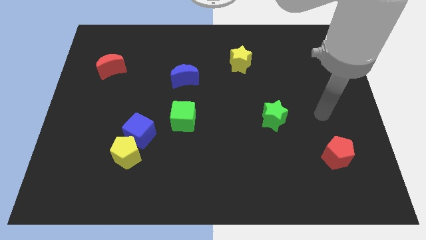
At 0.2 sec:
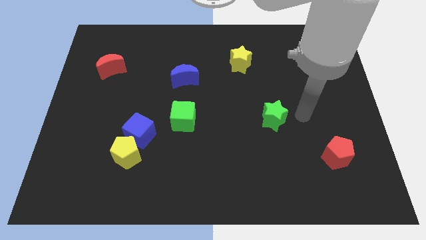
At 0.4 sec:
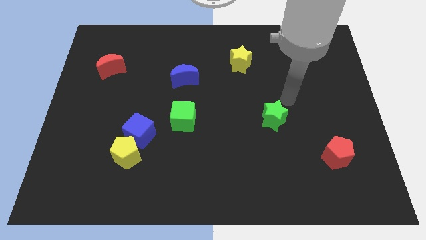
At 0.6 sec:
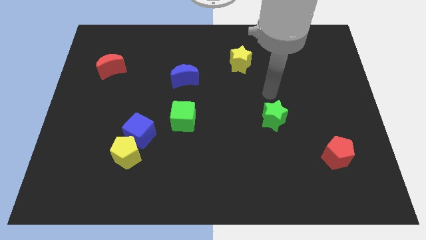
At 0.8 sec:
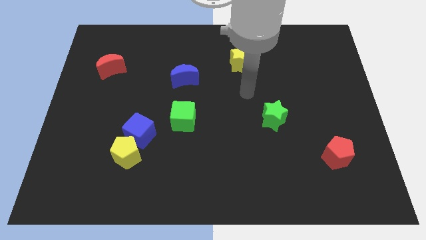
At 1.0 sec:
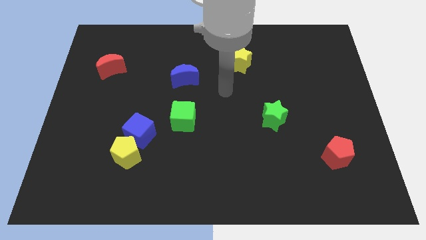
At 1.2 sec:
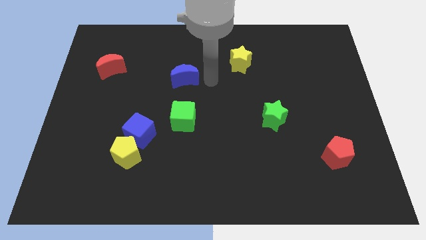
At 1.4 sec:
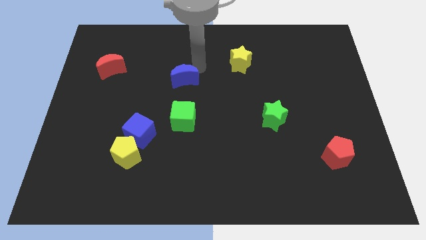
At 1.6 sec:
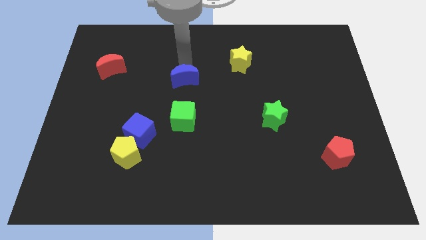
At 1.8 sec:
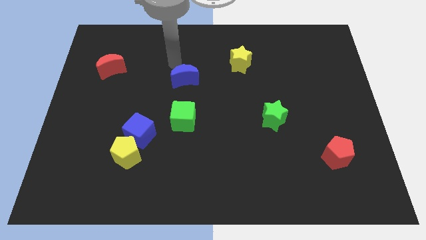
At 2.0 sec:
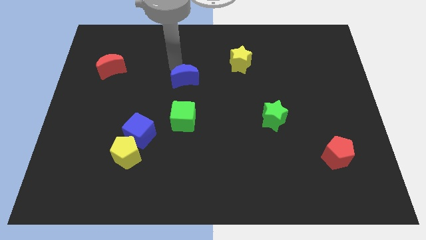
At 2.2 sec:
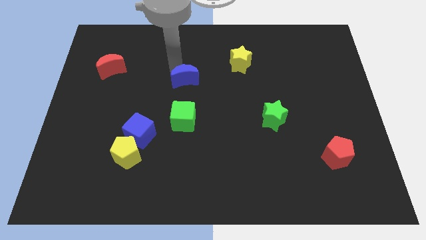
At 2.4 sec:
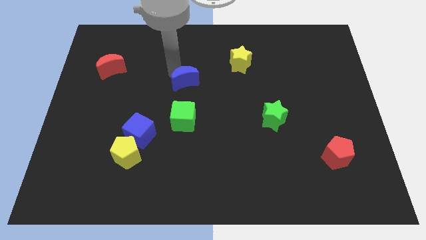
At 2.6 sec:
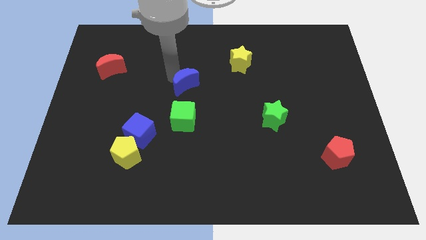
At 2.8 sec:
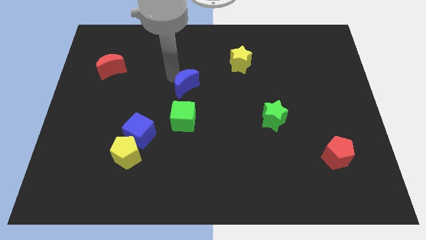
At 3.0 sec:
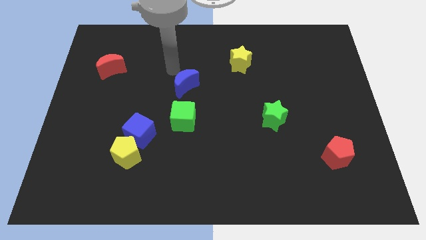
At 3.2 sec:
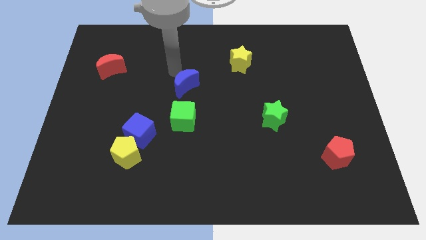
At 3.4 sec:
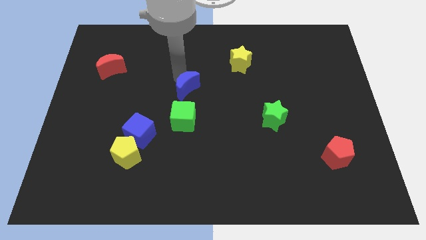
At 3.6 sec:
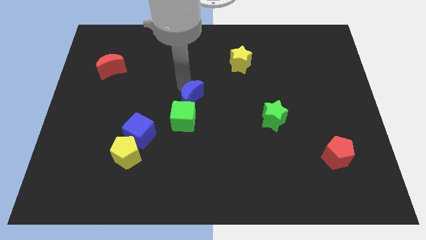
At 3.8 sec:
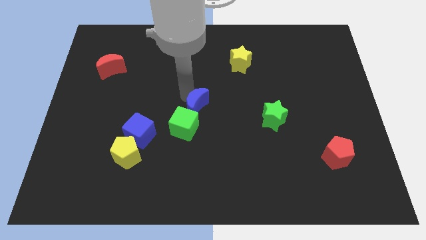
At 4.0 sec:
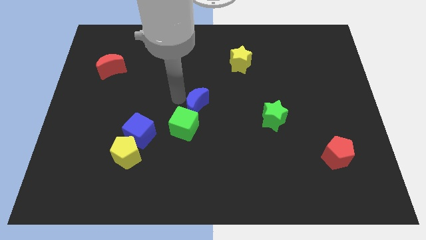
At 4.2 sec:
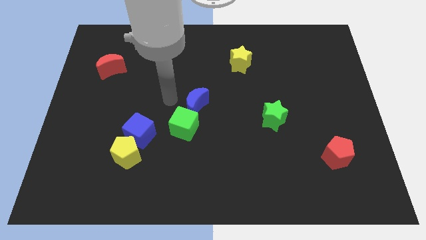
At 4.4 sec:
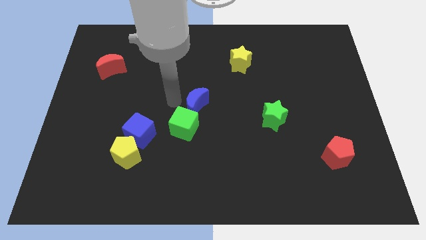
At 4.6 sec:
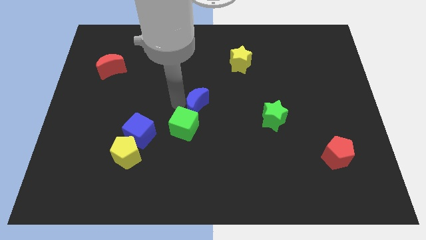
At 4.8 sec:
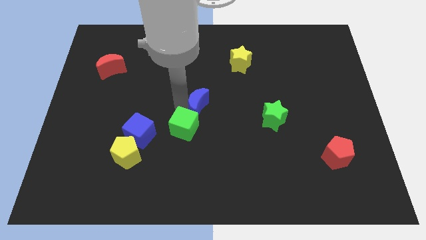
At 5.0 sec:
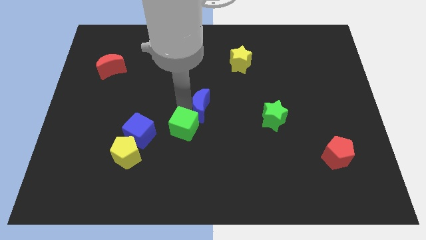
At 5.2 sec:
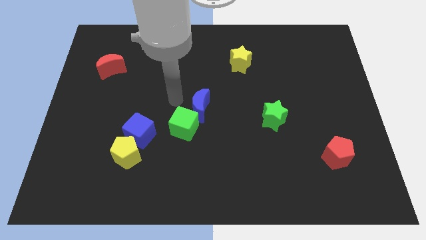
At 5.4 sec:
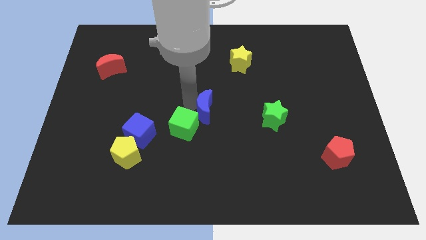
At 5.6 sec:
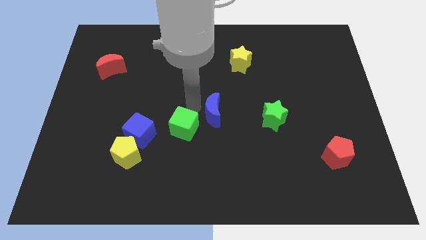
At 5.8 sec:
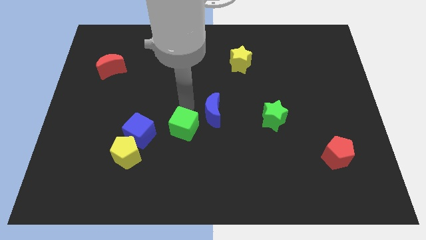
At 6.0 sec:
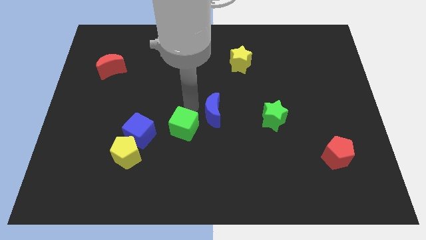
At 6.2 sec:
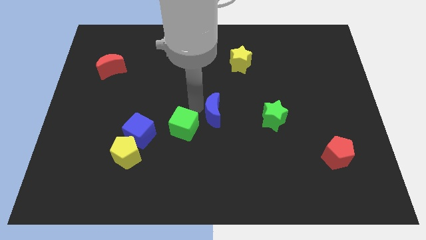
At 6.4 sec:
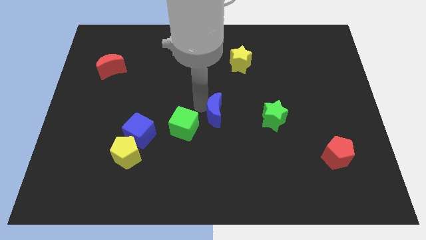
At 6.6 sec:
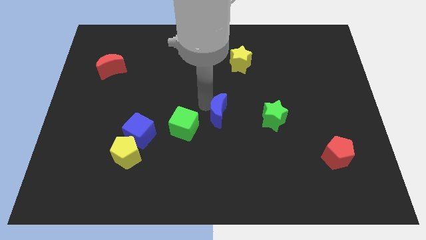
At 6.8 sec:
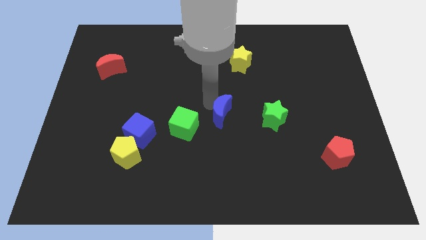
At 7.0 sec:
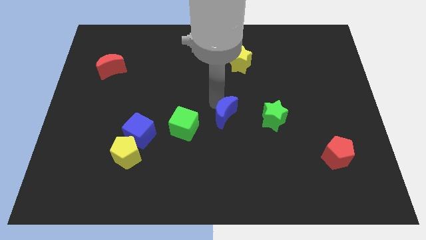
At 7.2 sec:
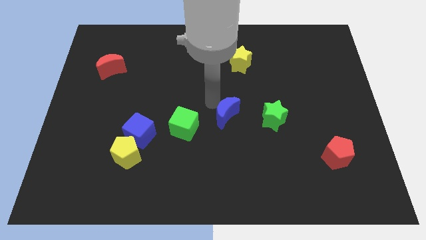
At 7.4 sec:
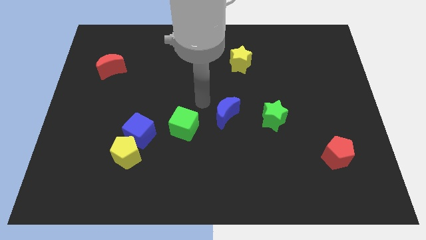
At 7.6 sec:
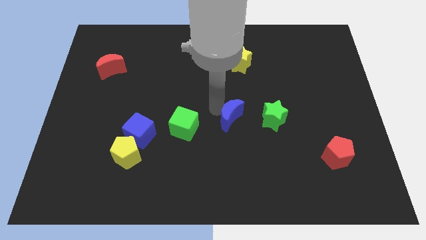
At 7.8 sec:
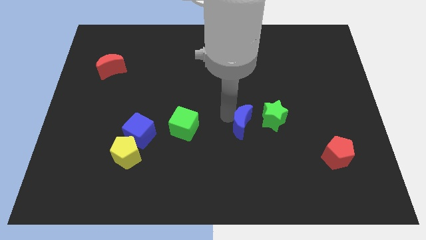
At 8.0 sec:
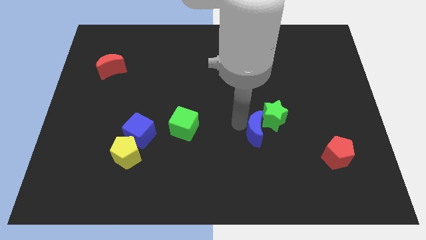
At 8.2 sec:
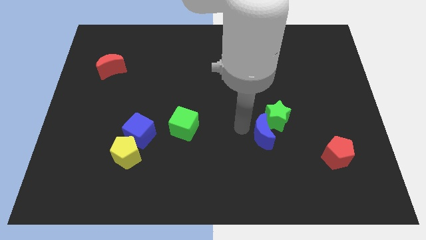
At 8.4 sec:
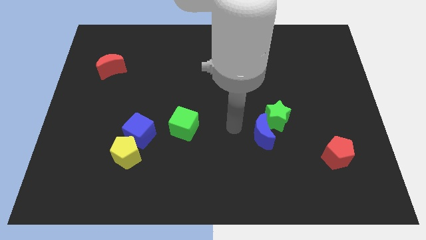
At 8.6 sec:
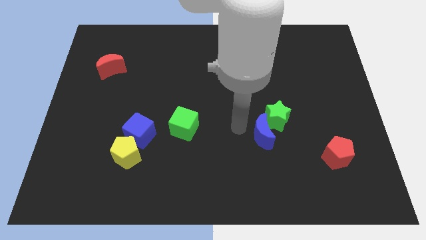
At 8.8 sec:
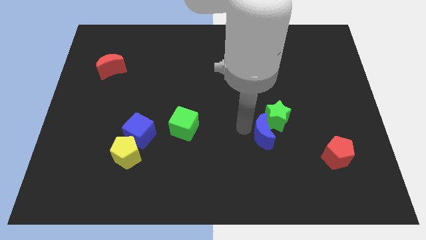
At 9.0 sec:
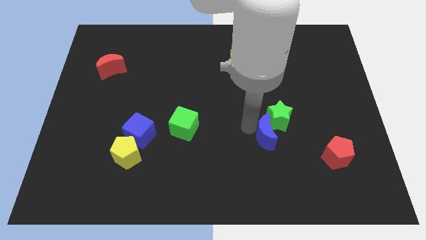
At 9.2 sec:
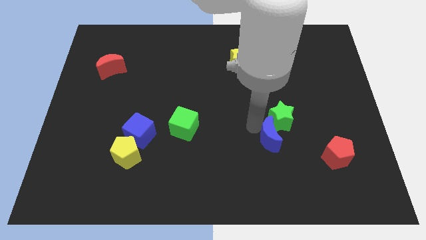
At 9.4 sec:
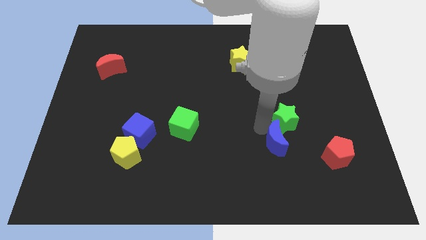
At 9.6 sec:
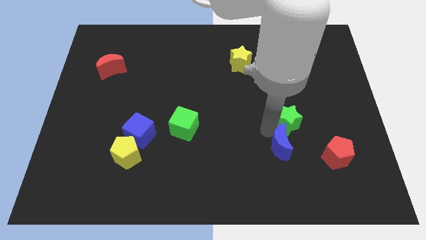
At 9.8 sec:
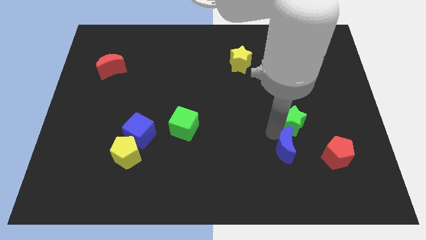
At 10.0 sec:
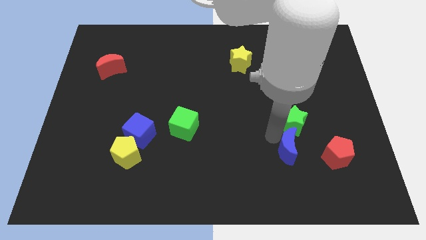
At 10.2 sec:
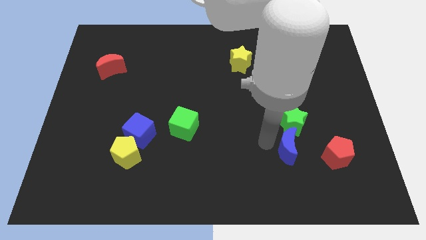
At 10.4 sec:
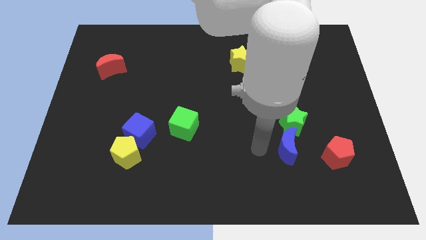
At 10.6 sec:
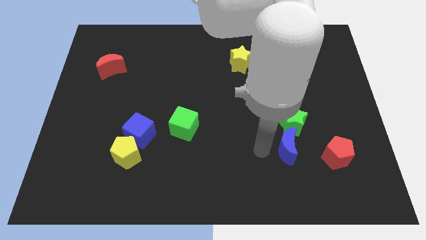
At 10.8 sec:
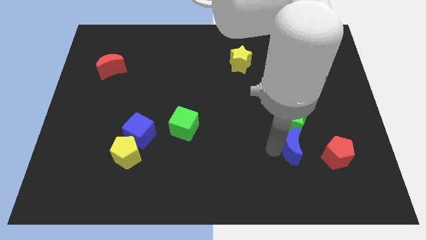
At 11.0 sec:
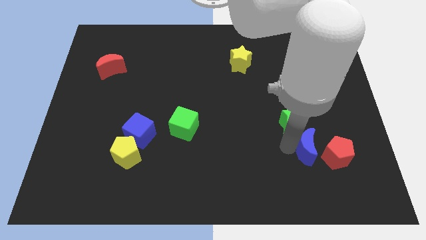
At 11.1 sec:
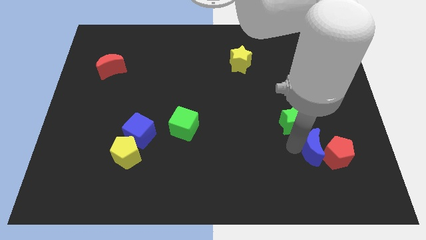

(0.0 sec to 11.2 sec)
put the blue moon close to the red pentagon

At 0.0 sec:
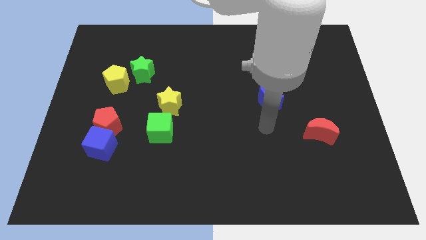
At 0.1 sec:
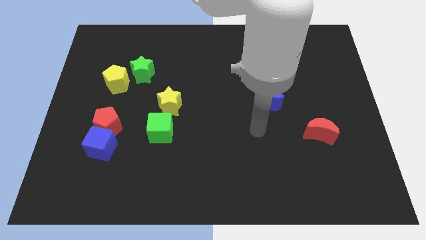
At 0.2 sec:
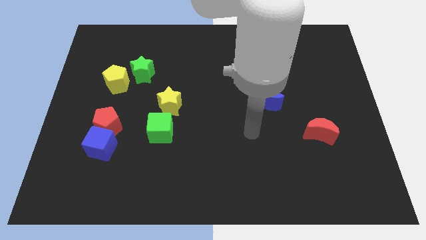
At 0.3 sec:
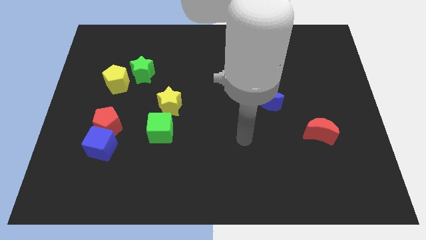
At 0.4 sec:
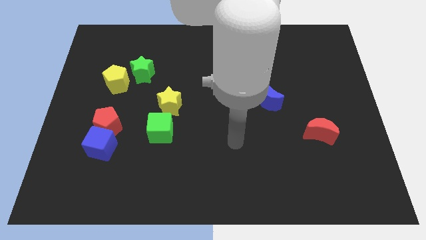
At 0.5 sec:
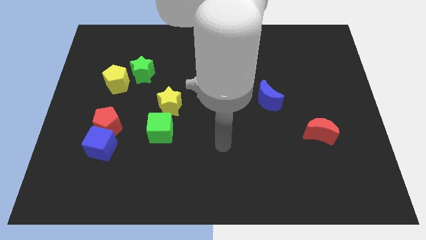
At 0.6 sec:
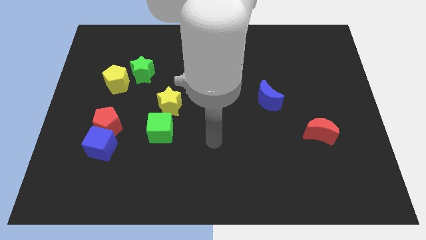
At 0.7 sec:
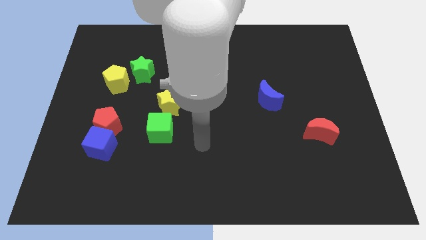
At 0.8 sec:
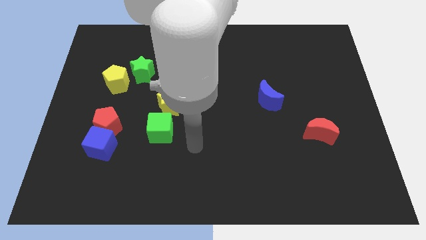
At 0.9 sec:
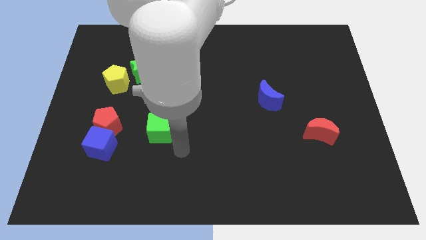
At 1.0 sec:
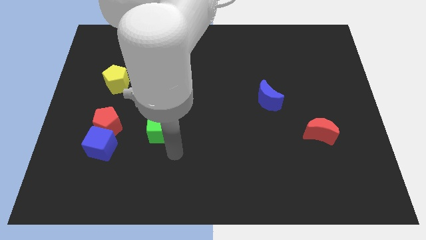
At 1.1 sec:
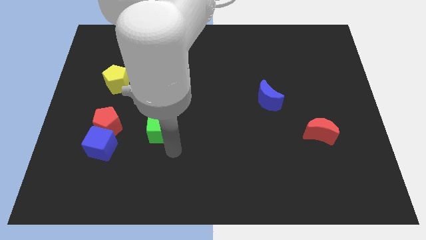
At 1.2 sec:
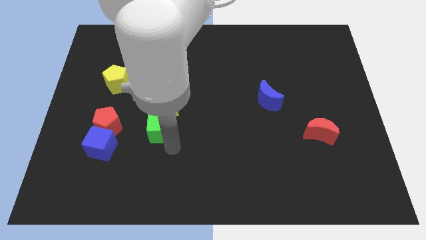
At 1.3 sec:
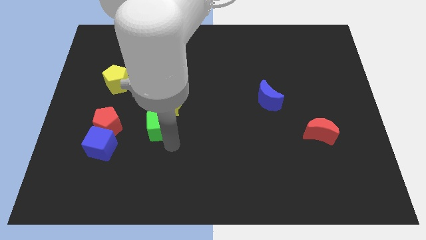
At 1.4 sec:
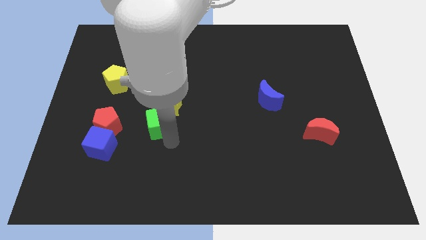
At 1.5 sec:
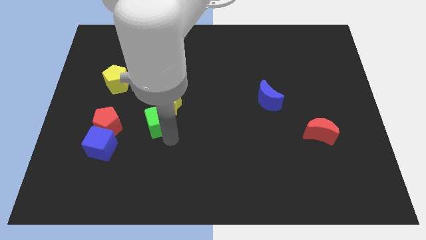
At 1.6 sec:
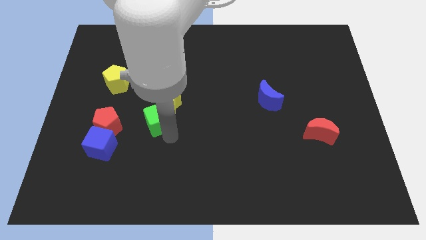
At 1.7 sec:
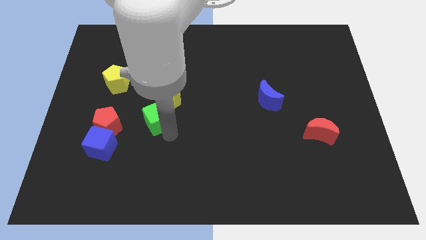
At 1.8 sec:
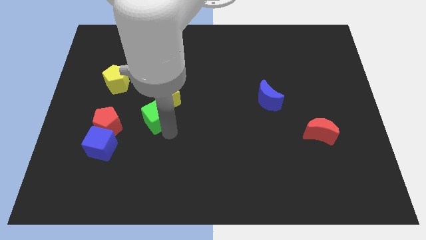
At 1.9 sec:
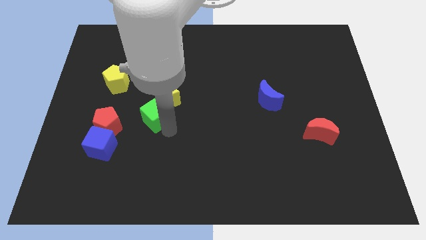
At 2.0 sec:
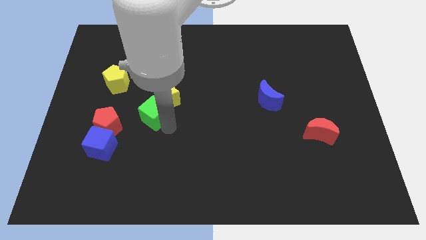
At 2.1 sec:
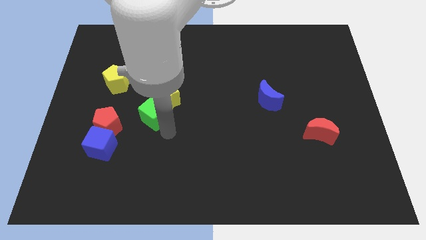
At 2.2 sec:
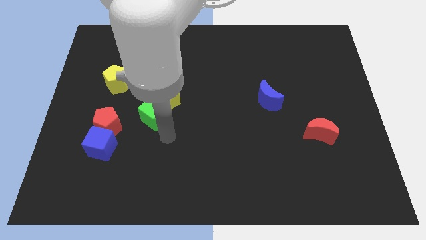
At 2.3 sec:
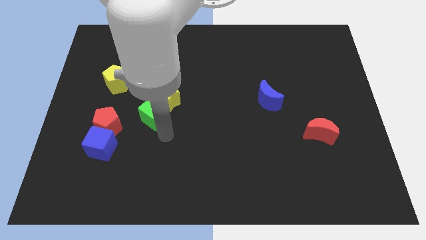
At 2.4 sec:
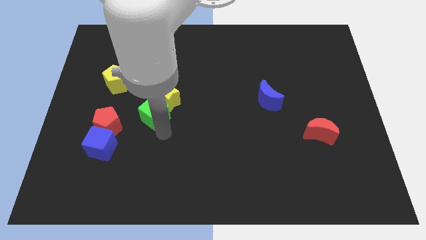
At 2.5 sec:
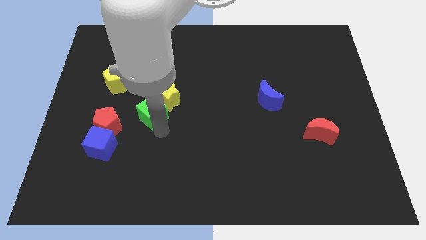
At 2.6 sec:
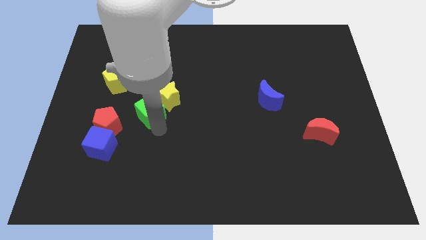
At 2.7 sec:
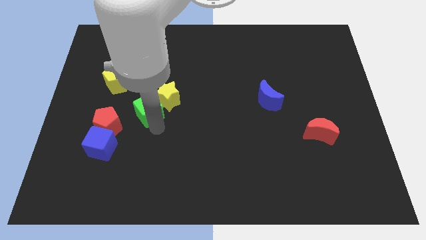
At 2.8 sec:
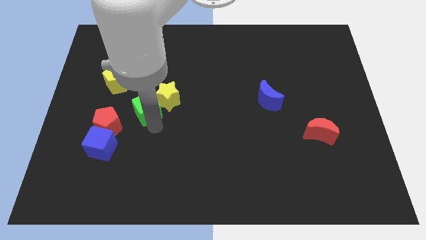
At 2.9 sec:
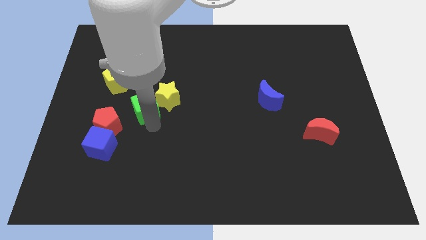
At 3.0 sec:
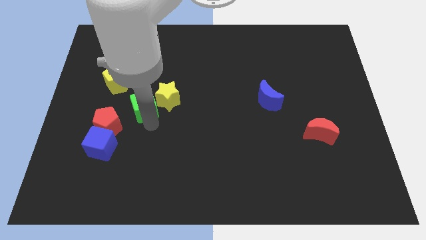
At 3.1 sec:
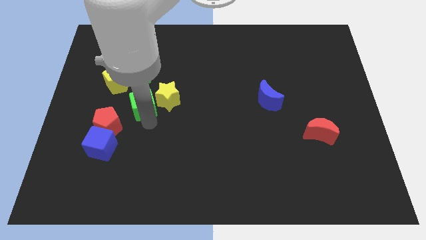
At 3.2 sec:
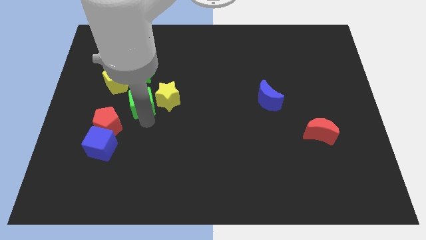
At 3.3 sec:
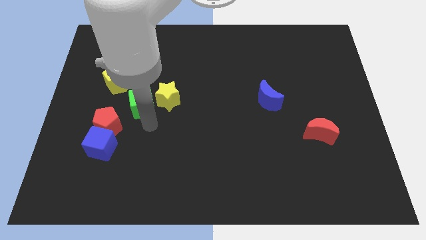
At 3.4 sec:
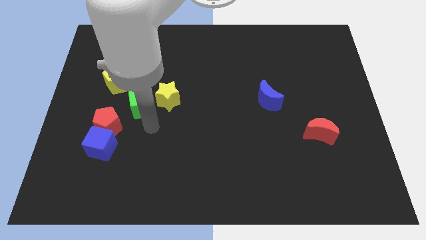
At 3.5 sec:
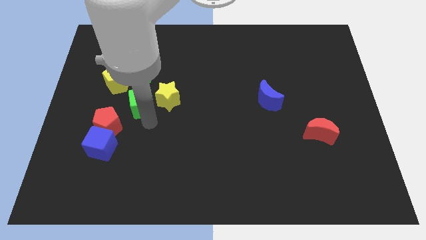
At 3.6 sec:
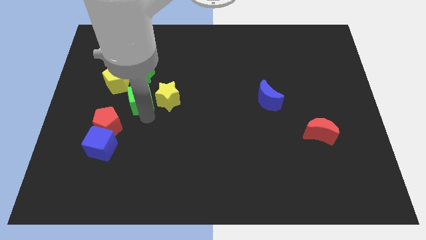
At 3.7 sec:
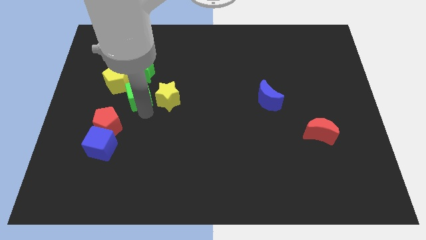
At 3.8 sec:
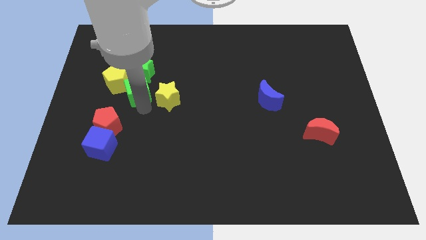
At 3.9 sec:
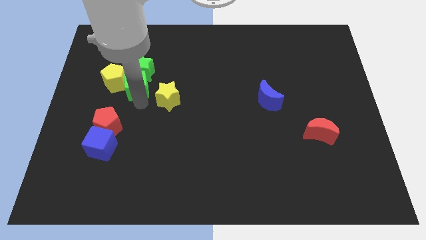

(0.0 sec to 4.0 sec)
slide the green cube next to the green star
